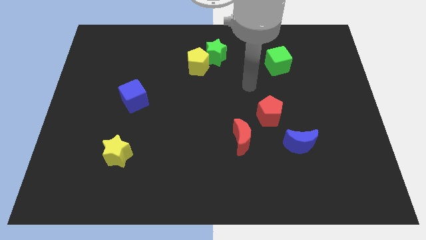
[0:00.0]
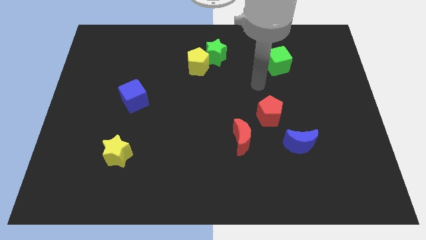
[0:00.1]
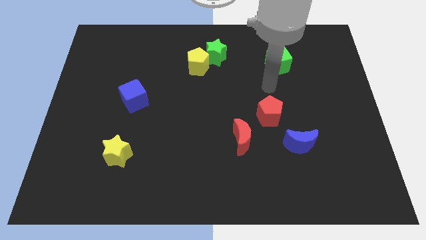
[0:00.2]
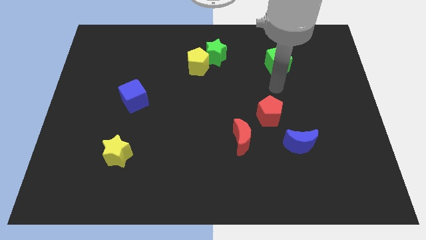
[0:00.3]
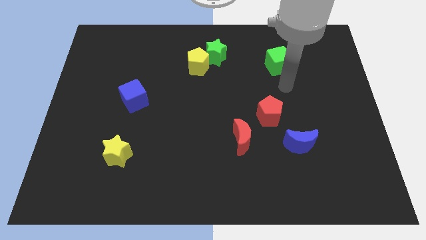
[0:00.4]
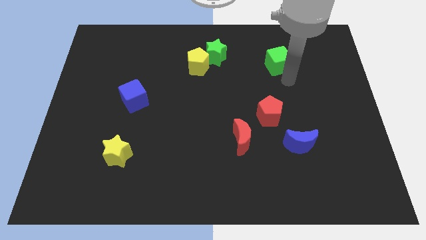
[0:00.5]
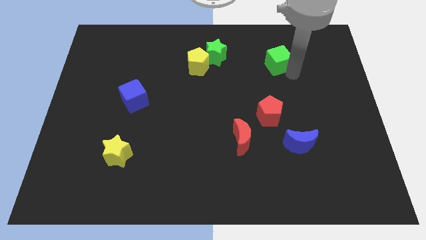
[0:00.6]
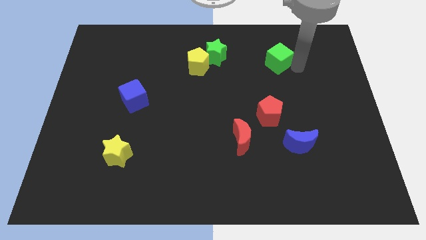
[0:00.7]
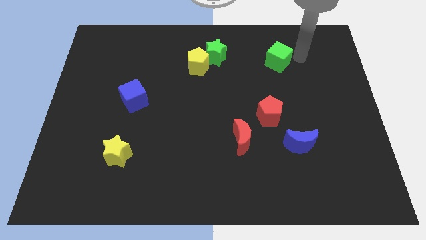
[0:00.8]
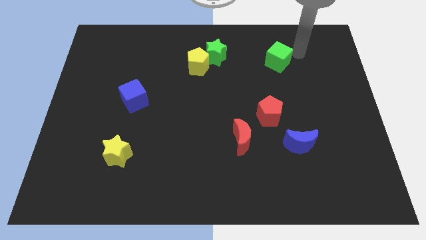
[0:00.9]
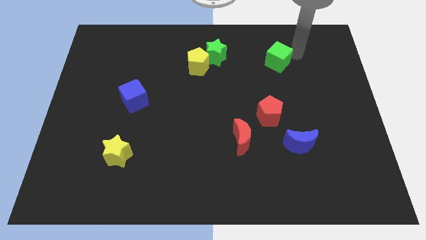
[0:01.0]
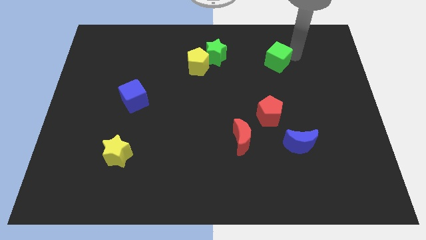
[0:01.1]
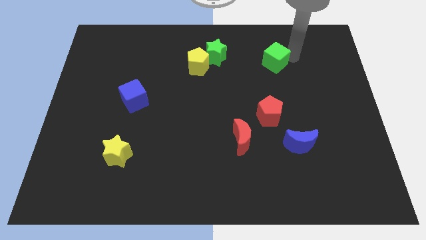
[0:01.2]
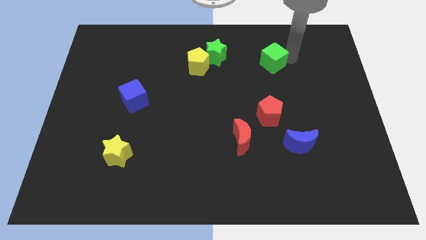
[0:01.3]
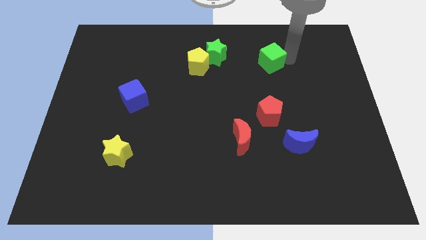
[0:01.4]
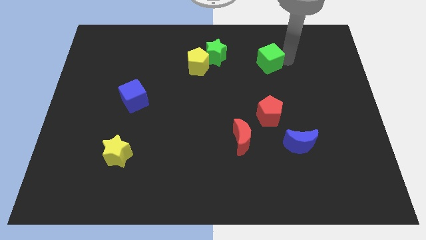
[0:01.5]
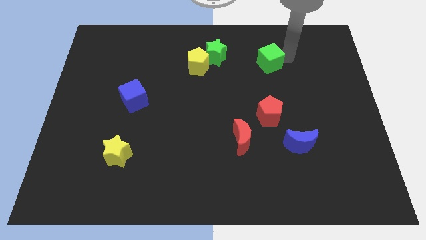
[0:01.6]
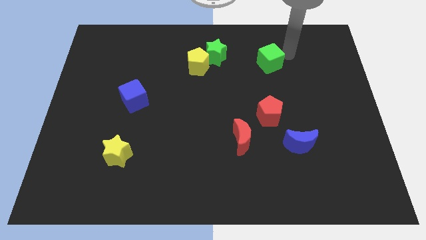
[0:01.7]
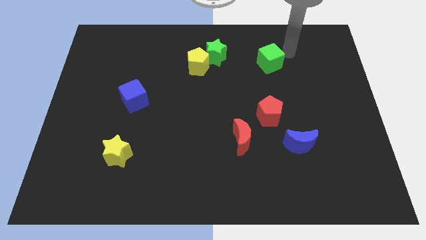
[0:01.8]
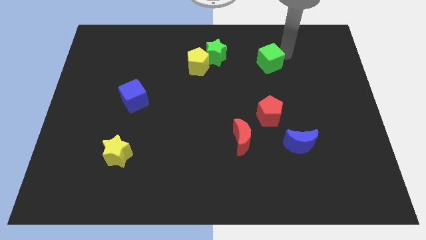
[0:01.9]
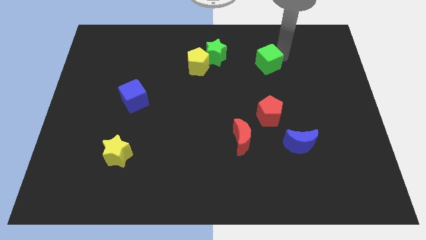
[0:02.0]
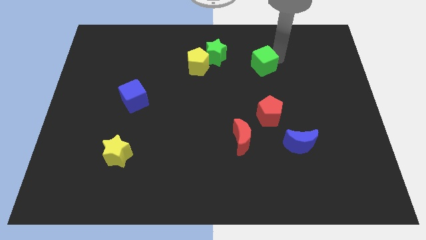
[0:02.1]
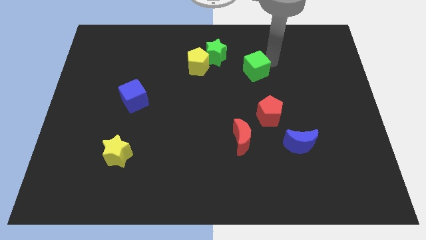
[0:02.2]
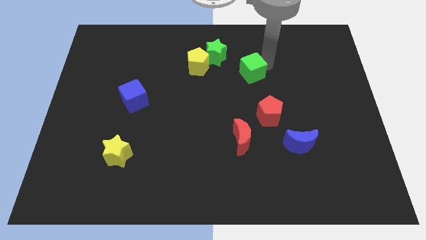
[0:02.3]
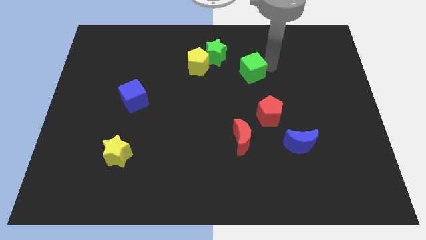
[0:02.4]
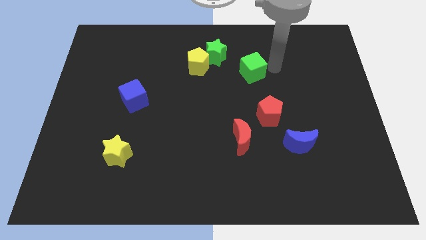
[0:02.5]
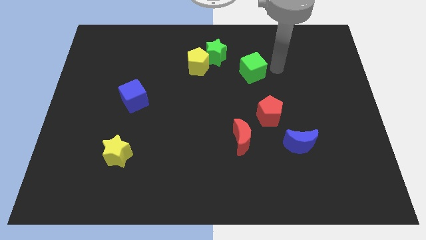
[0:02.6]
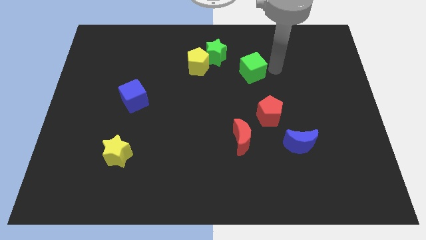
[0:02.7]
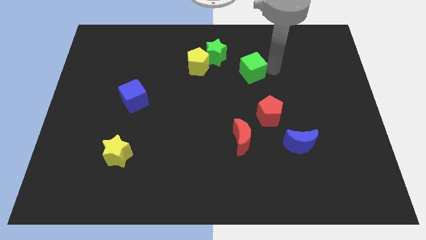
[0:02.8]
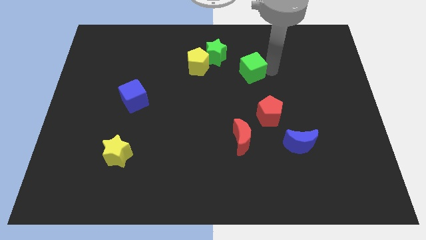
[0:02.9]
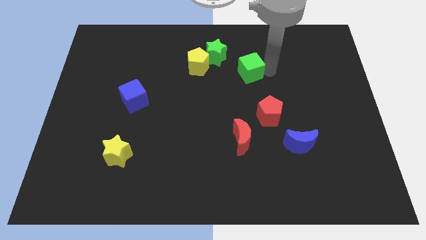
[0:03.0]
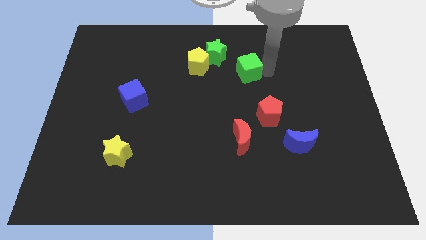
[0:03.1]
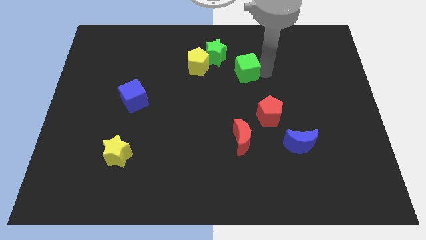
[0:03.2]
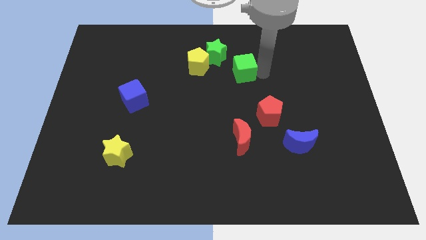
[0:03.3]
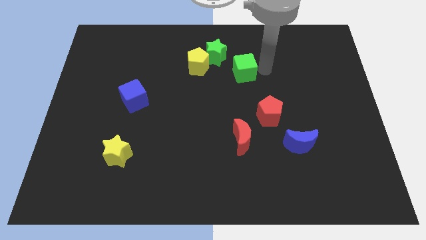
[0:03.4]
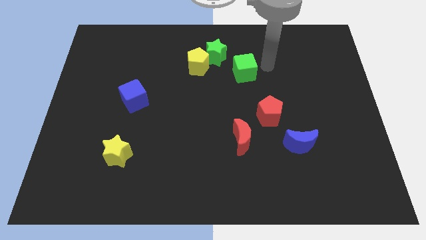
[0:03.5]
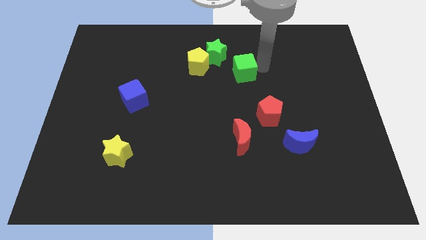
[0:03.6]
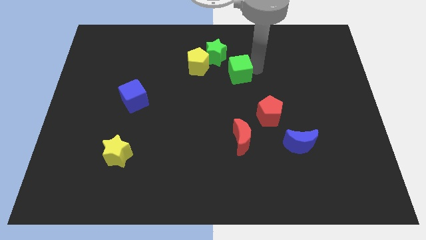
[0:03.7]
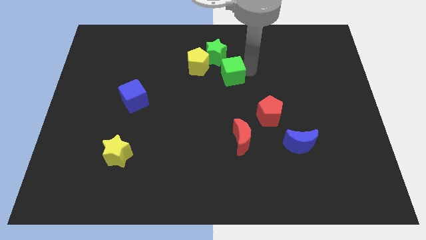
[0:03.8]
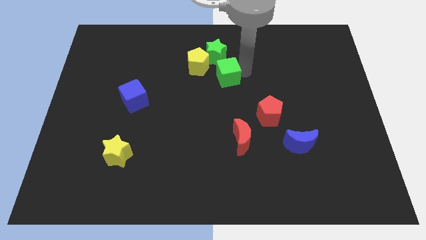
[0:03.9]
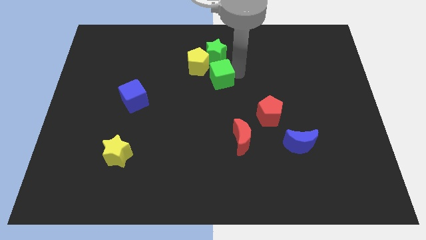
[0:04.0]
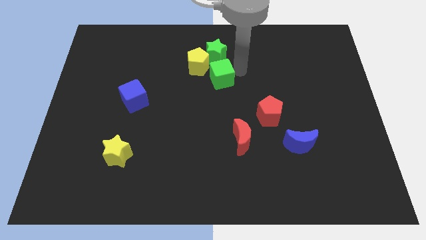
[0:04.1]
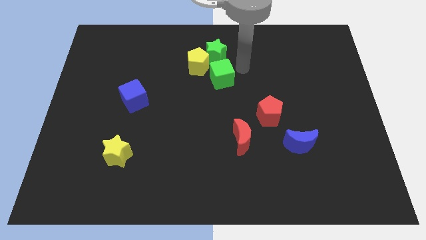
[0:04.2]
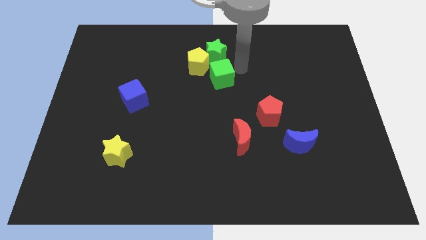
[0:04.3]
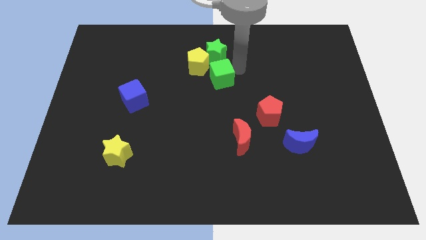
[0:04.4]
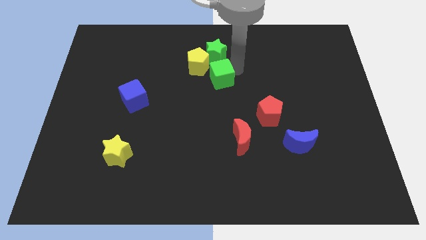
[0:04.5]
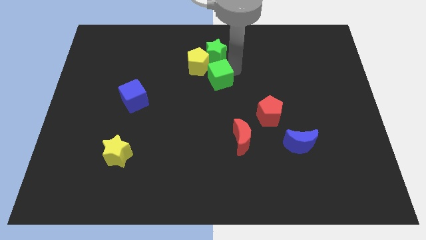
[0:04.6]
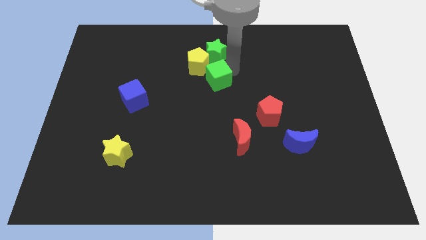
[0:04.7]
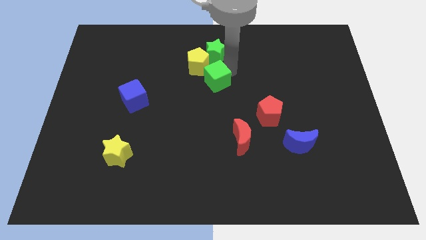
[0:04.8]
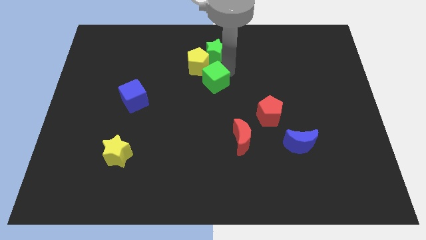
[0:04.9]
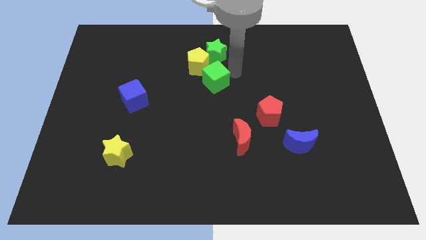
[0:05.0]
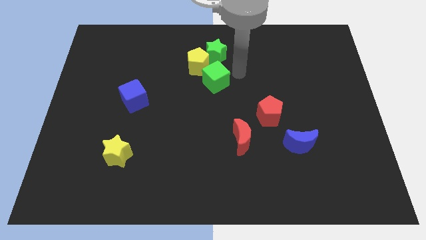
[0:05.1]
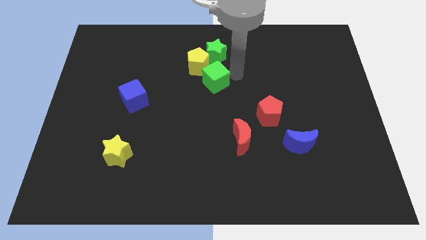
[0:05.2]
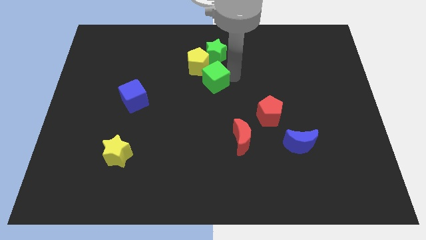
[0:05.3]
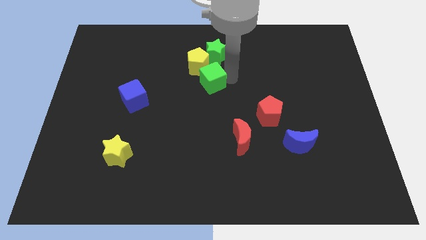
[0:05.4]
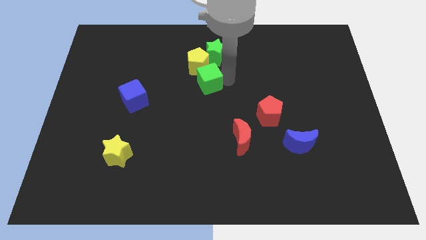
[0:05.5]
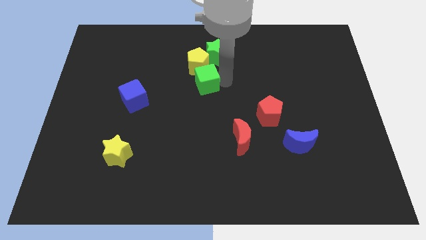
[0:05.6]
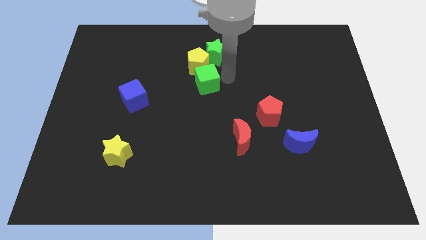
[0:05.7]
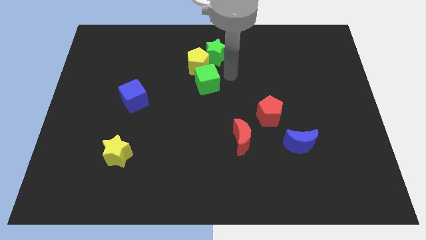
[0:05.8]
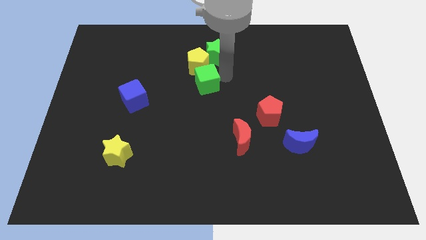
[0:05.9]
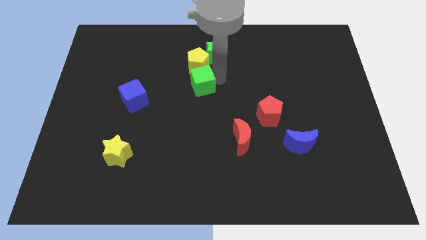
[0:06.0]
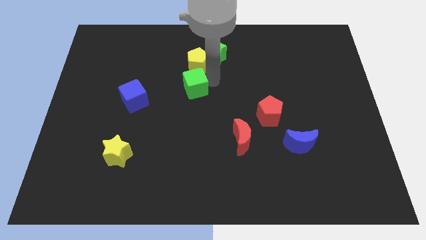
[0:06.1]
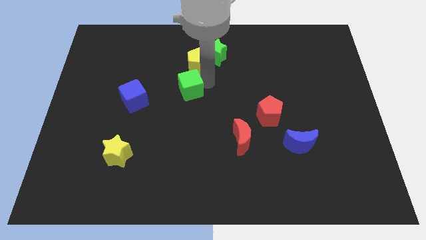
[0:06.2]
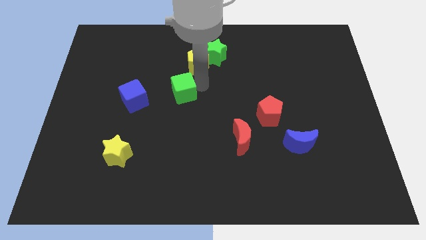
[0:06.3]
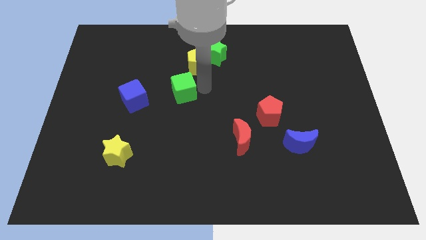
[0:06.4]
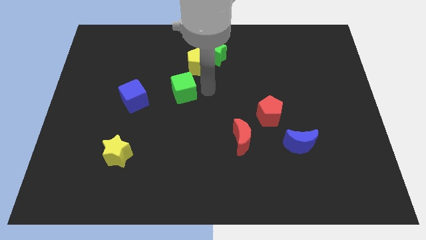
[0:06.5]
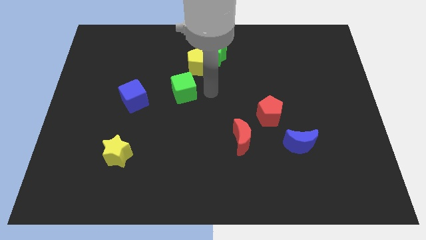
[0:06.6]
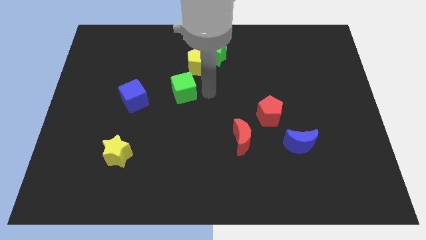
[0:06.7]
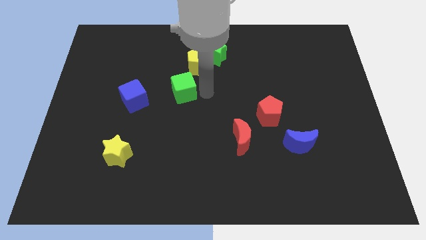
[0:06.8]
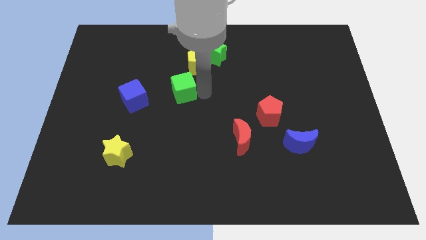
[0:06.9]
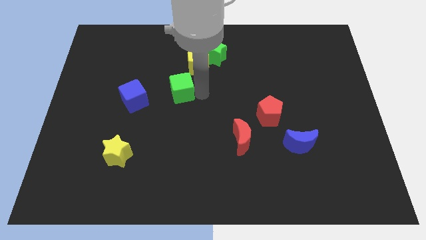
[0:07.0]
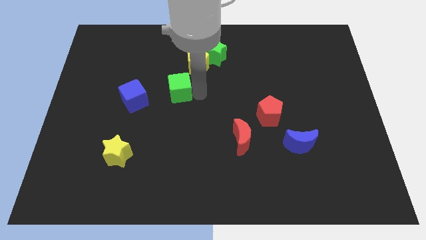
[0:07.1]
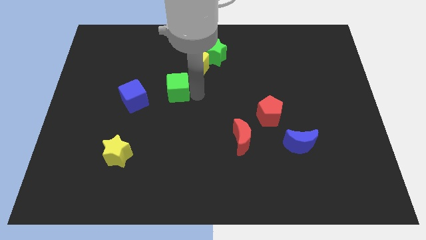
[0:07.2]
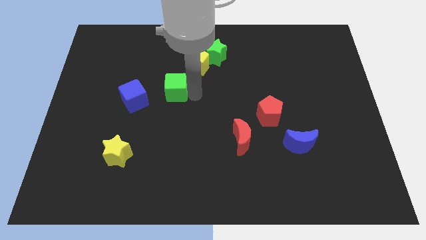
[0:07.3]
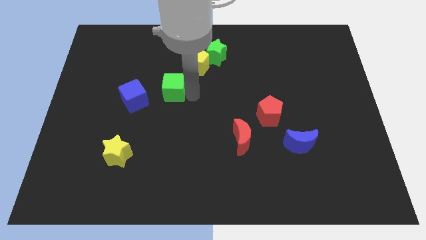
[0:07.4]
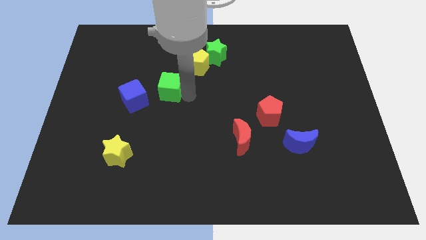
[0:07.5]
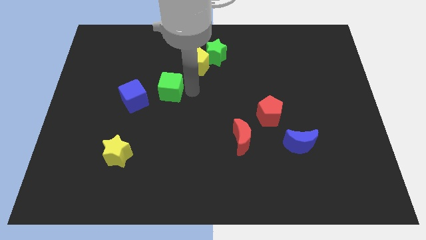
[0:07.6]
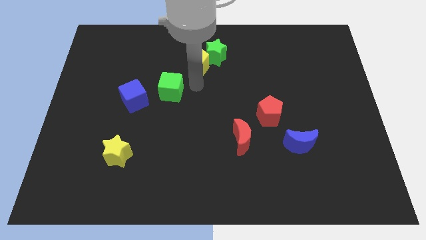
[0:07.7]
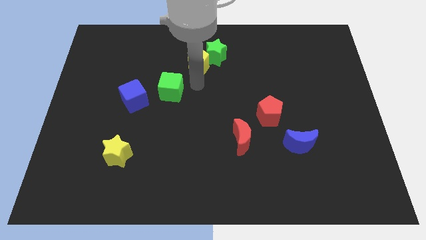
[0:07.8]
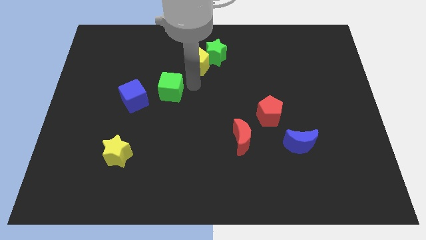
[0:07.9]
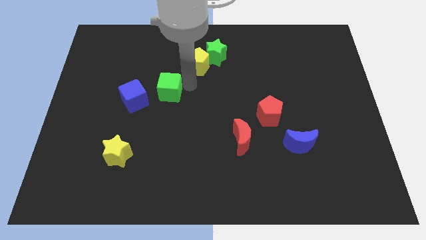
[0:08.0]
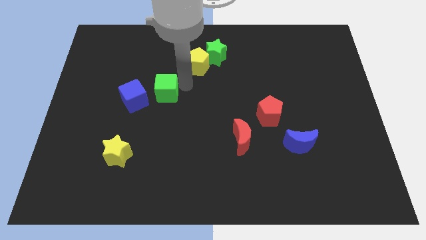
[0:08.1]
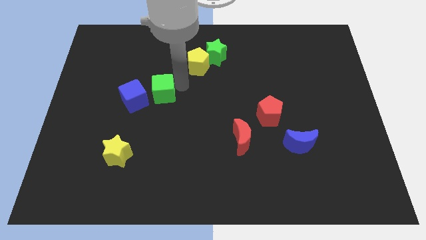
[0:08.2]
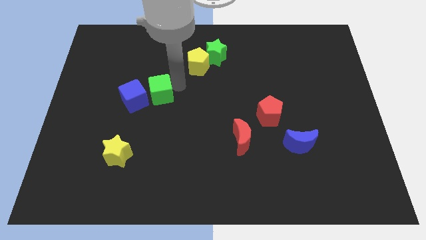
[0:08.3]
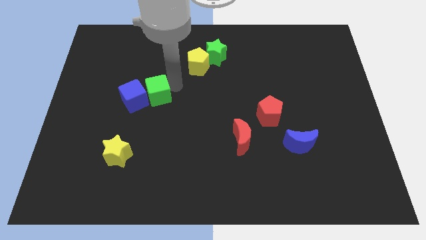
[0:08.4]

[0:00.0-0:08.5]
put the green cube towards the blue cube
